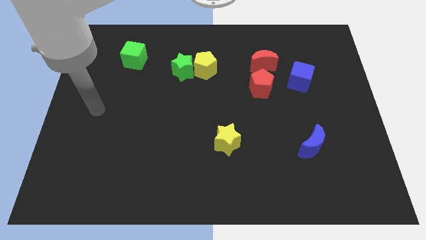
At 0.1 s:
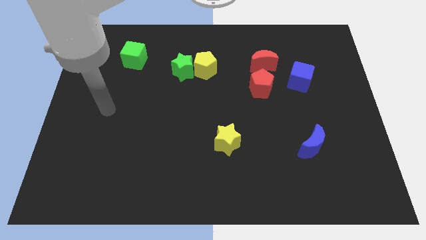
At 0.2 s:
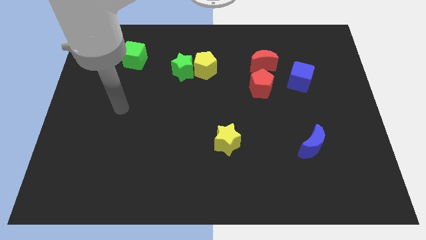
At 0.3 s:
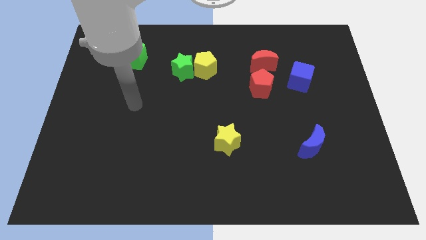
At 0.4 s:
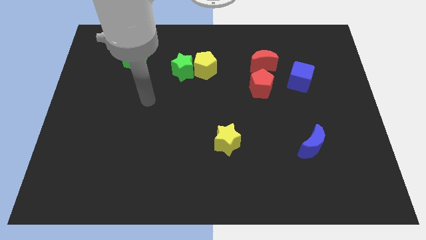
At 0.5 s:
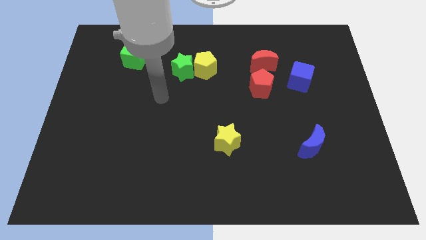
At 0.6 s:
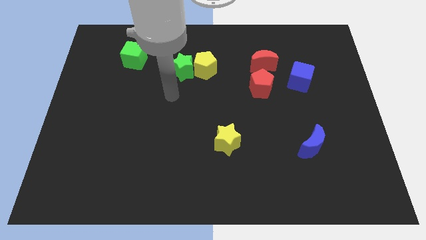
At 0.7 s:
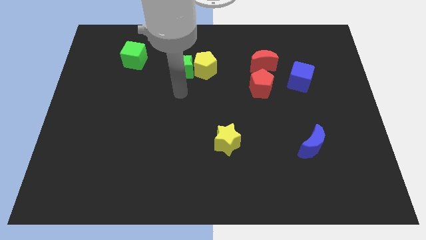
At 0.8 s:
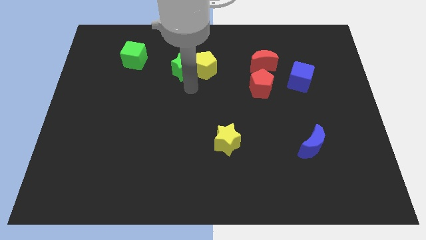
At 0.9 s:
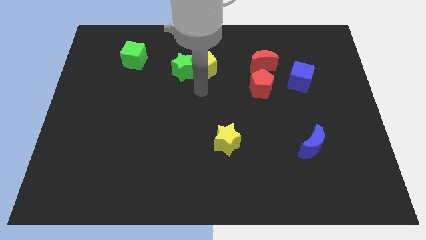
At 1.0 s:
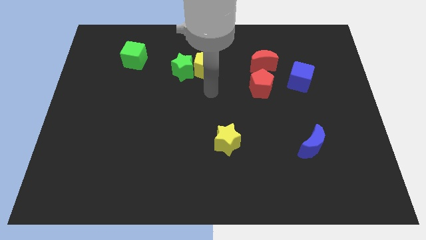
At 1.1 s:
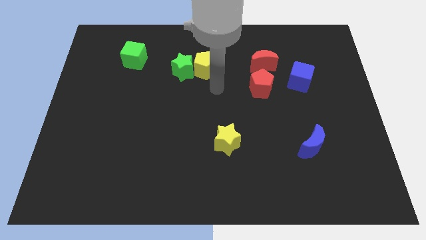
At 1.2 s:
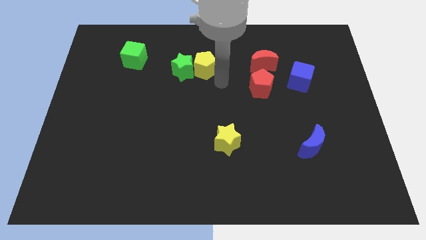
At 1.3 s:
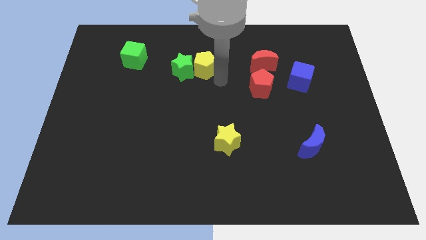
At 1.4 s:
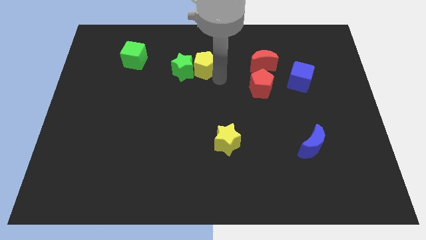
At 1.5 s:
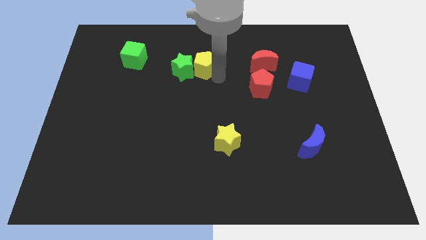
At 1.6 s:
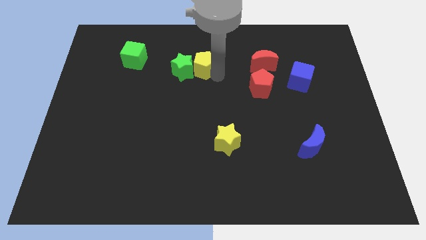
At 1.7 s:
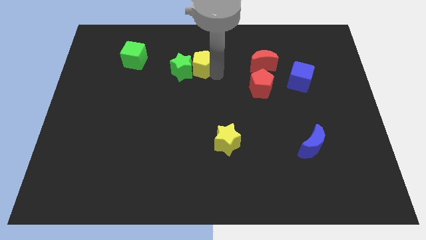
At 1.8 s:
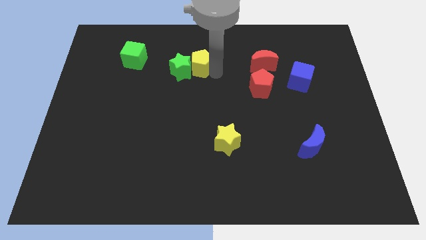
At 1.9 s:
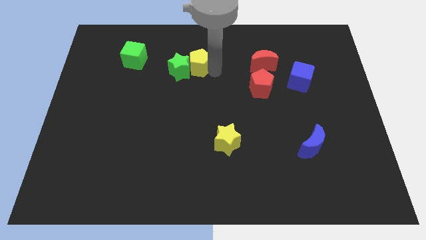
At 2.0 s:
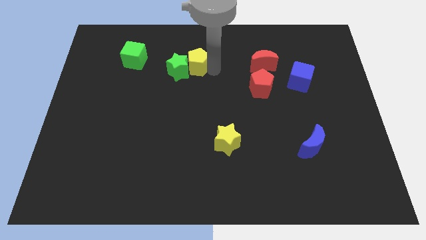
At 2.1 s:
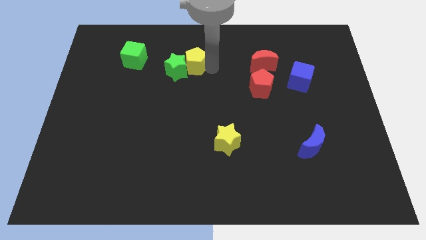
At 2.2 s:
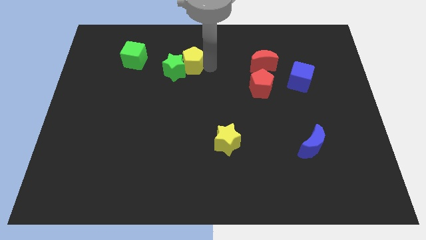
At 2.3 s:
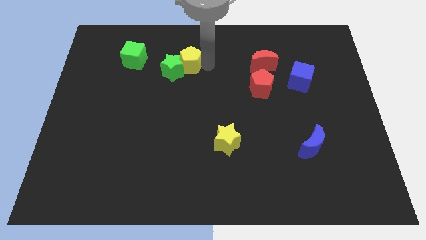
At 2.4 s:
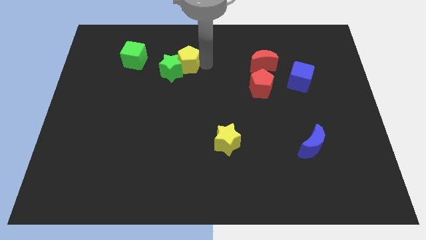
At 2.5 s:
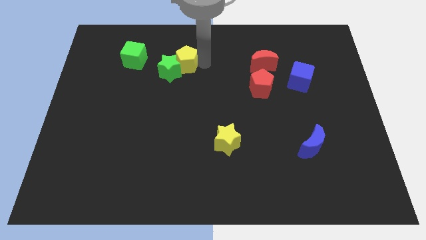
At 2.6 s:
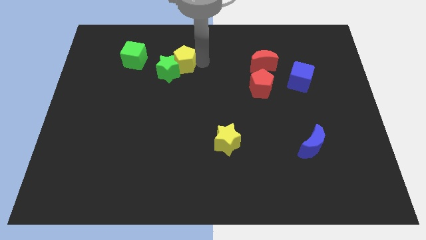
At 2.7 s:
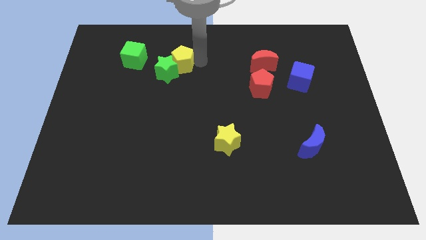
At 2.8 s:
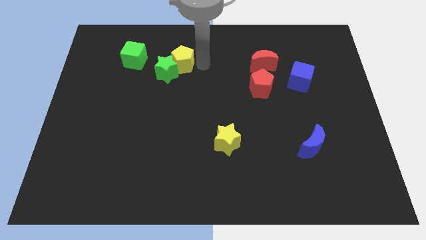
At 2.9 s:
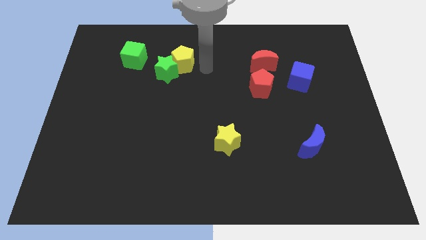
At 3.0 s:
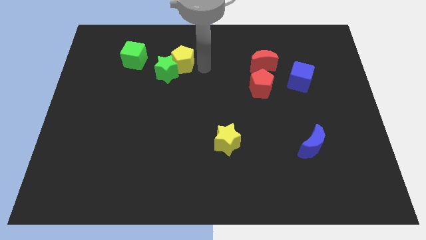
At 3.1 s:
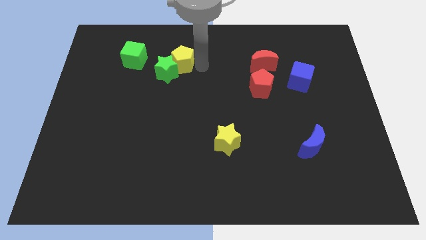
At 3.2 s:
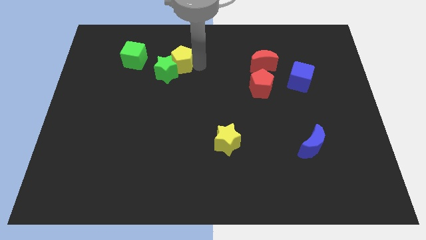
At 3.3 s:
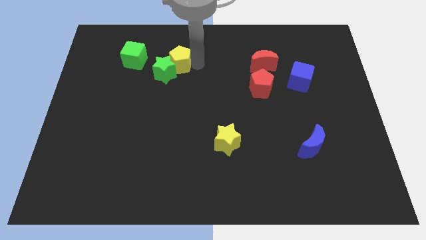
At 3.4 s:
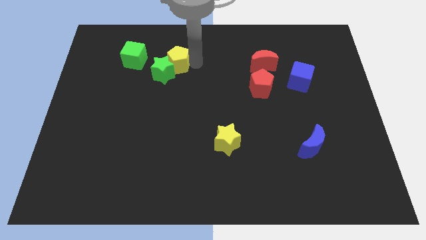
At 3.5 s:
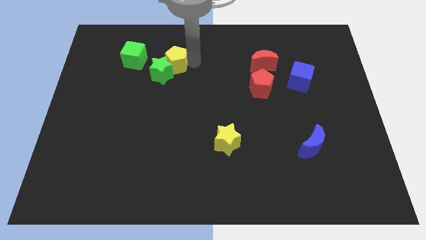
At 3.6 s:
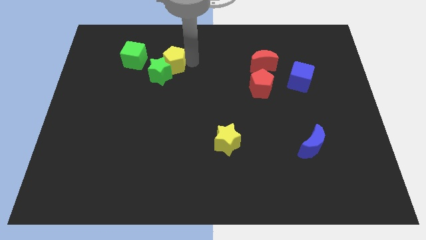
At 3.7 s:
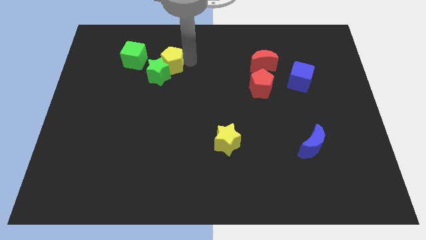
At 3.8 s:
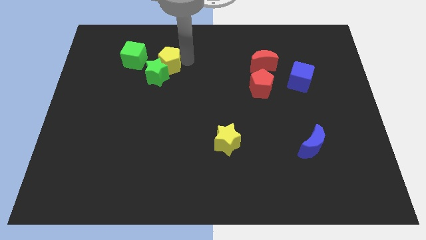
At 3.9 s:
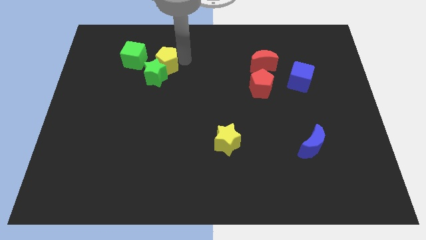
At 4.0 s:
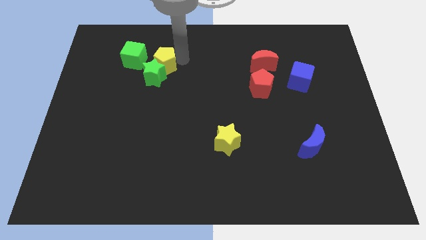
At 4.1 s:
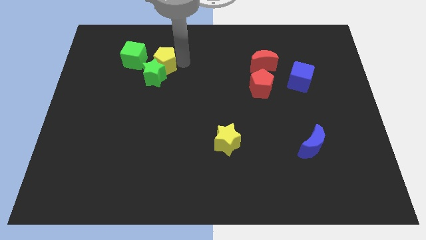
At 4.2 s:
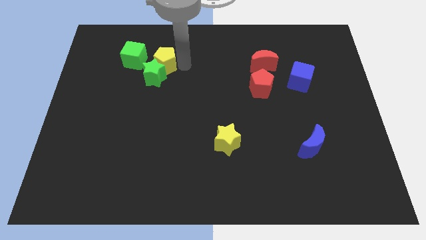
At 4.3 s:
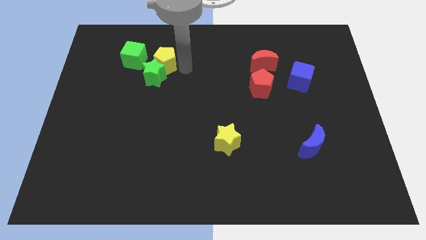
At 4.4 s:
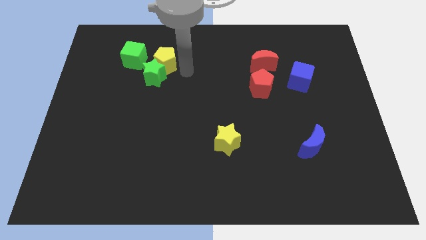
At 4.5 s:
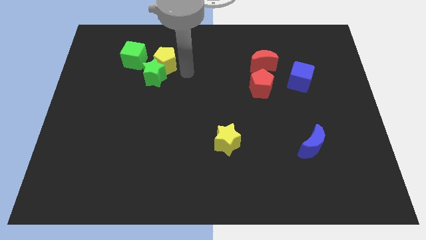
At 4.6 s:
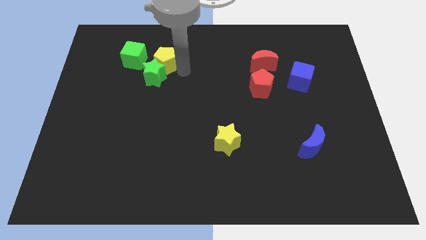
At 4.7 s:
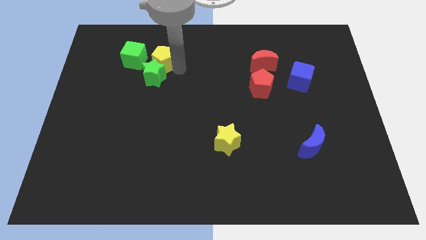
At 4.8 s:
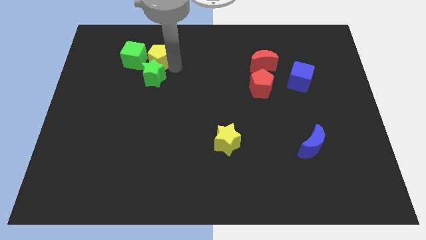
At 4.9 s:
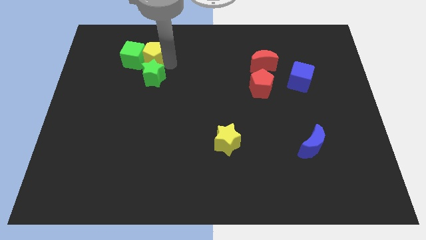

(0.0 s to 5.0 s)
move the yellow pentagon close to the green cube

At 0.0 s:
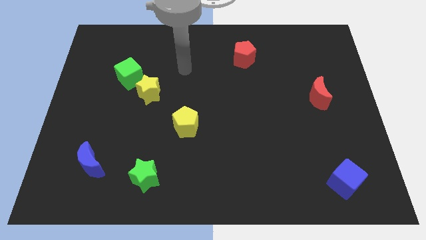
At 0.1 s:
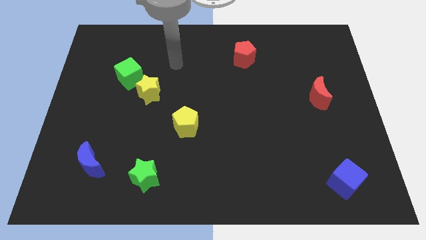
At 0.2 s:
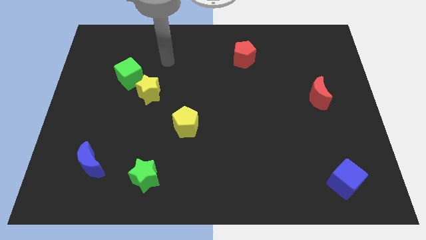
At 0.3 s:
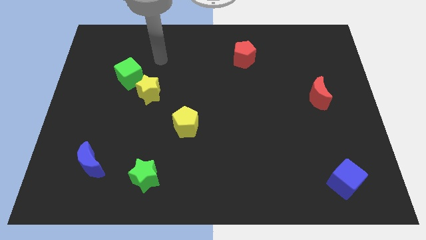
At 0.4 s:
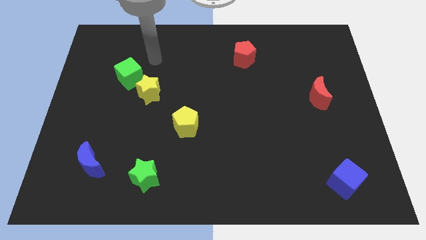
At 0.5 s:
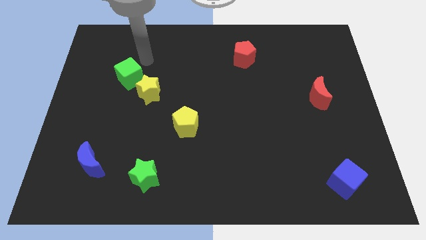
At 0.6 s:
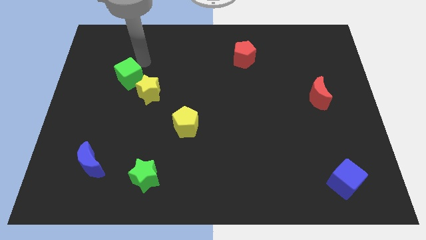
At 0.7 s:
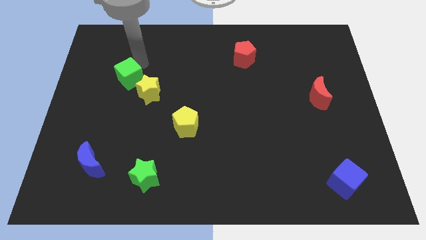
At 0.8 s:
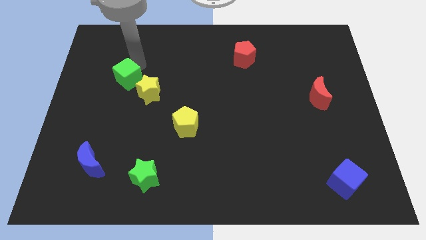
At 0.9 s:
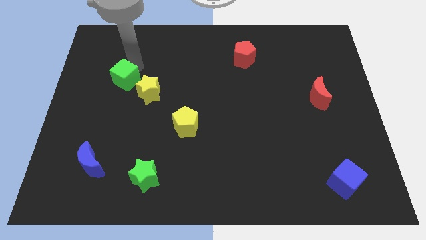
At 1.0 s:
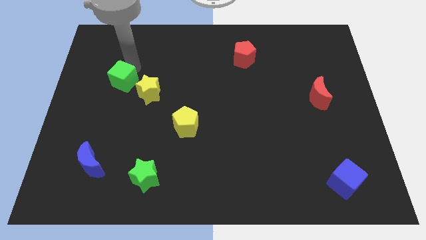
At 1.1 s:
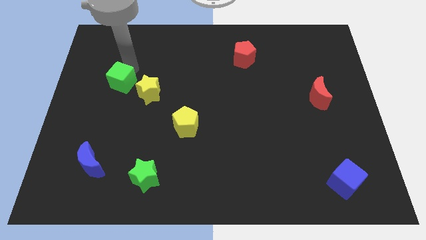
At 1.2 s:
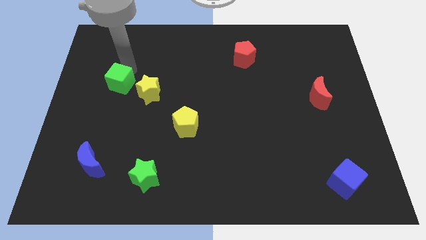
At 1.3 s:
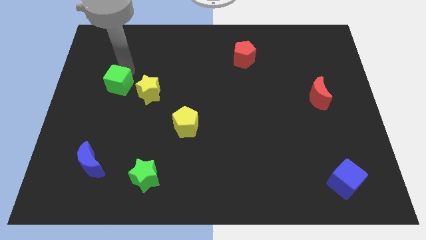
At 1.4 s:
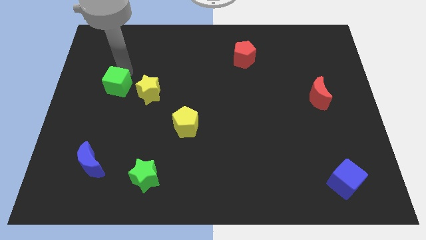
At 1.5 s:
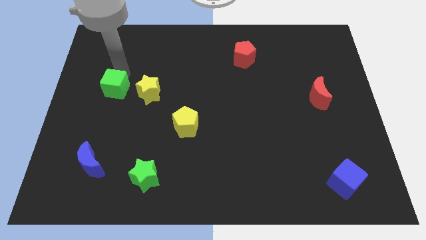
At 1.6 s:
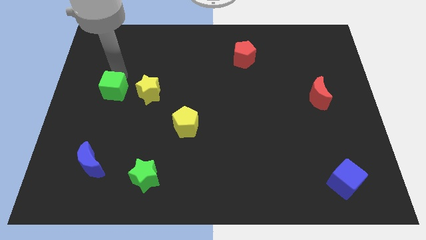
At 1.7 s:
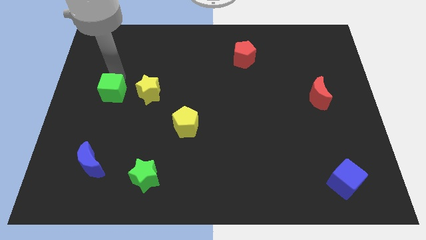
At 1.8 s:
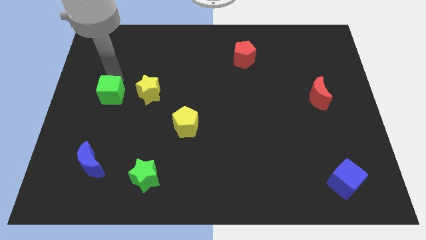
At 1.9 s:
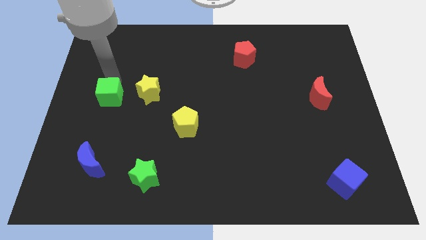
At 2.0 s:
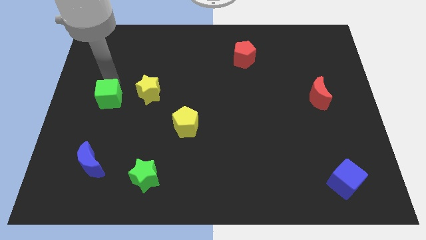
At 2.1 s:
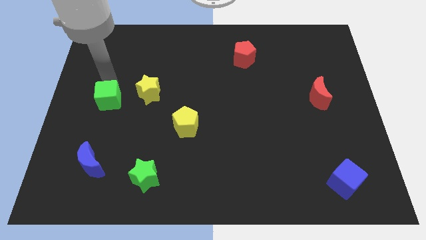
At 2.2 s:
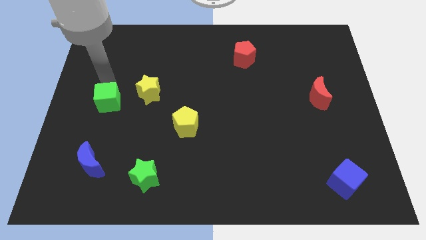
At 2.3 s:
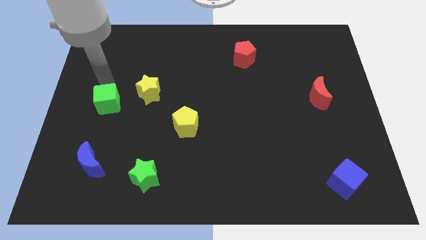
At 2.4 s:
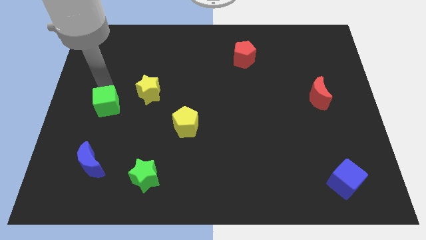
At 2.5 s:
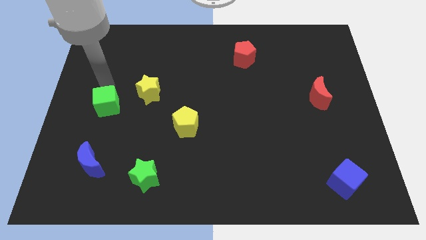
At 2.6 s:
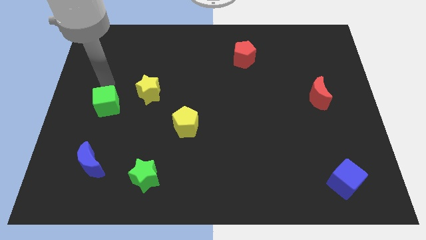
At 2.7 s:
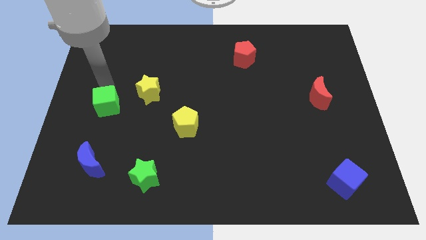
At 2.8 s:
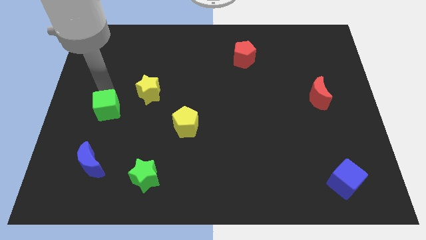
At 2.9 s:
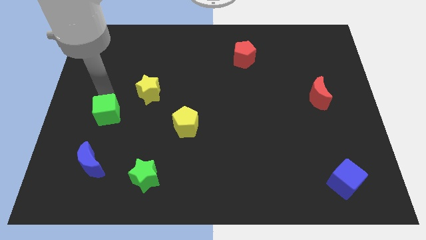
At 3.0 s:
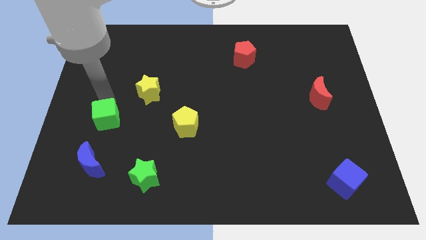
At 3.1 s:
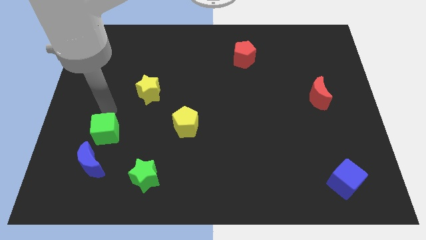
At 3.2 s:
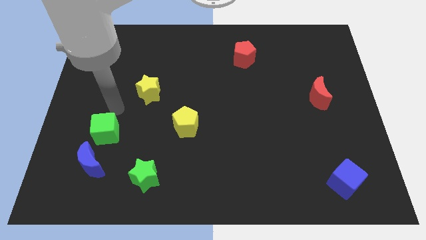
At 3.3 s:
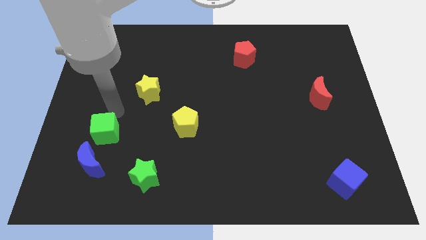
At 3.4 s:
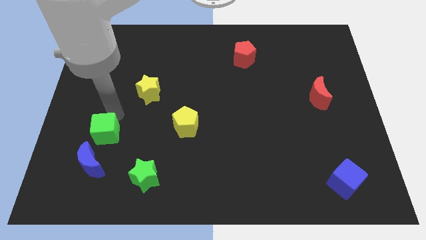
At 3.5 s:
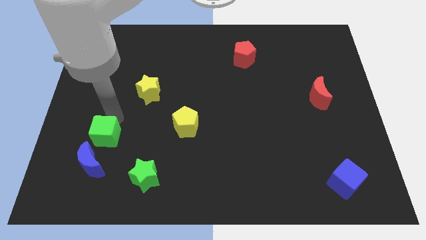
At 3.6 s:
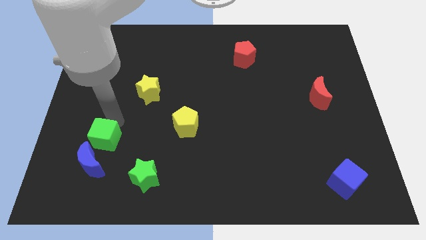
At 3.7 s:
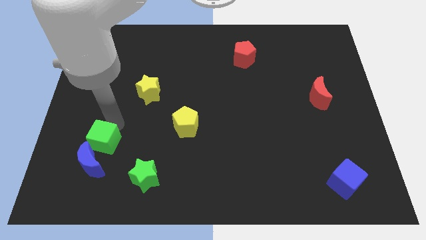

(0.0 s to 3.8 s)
put the green cube towards the blue moon
